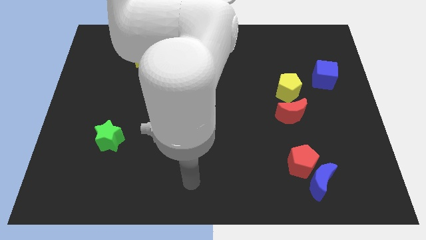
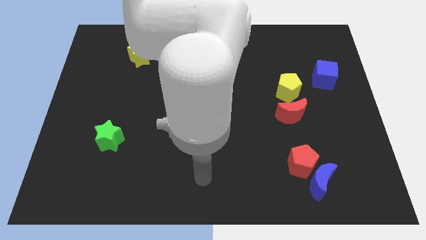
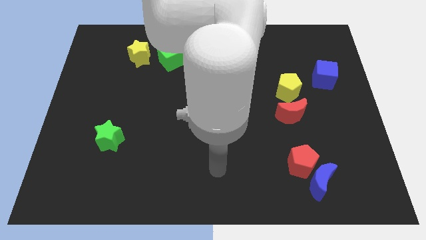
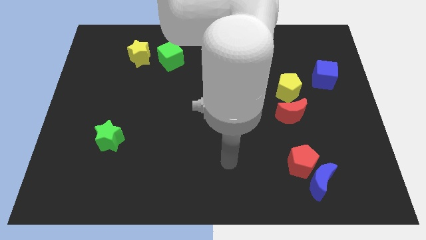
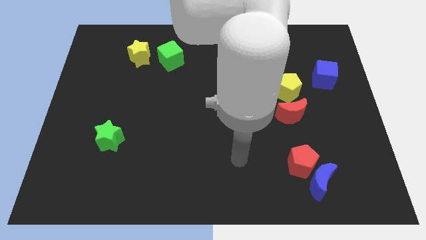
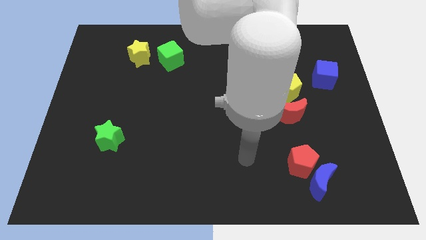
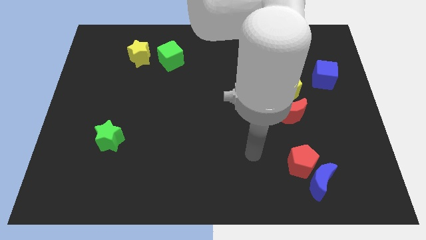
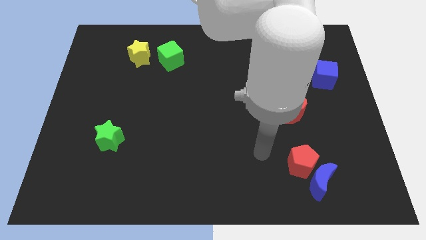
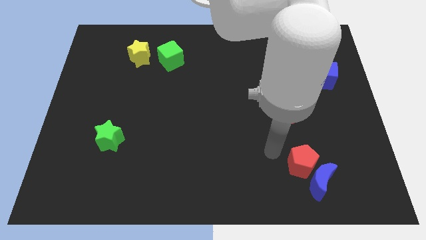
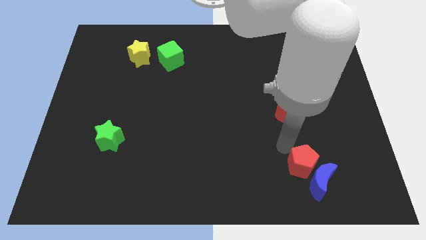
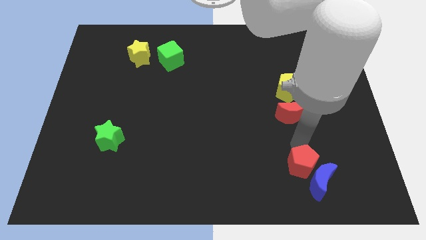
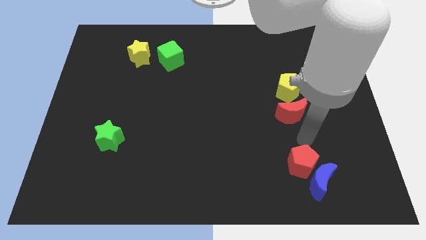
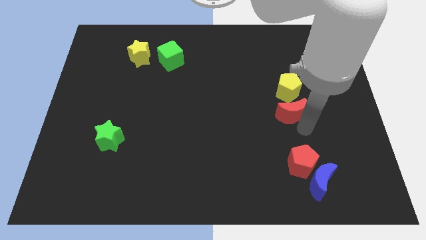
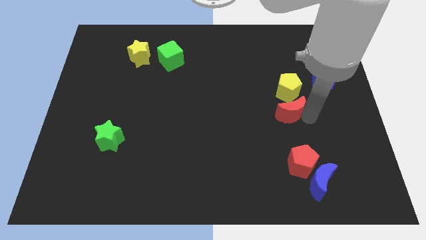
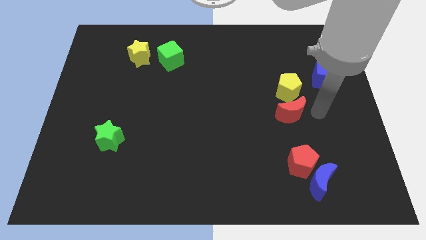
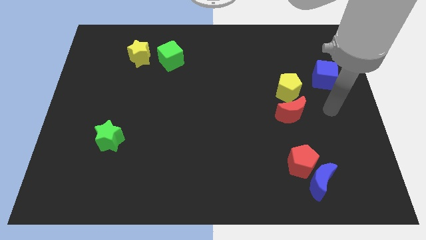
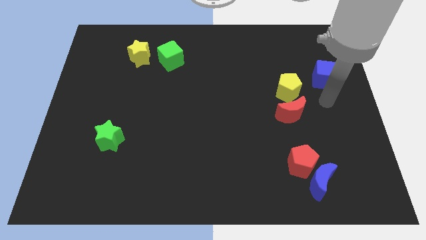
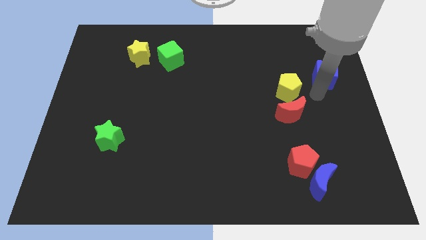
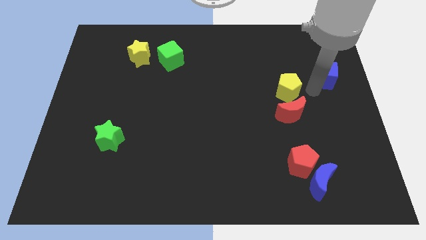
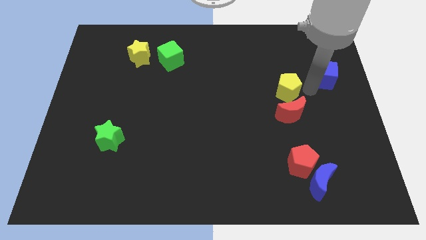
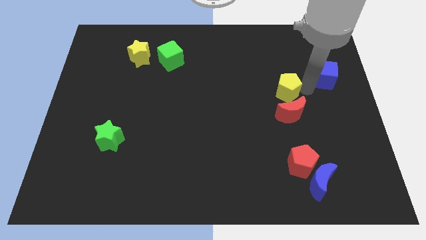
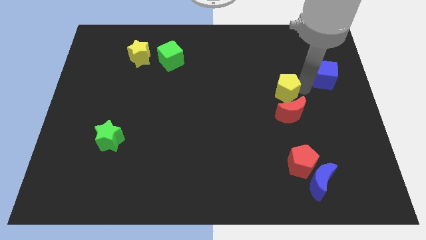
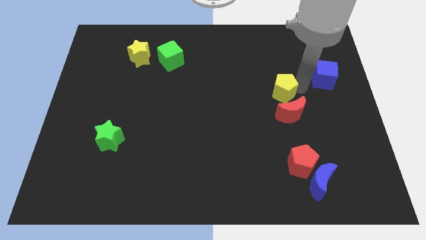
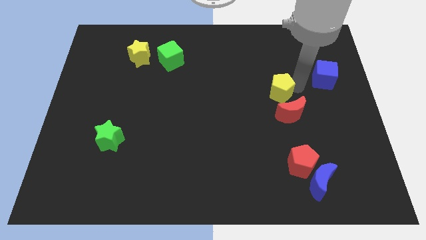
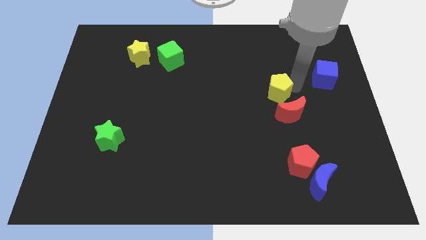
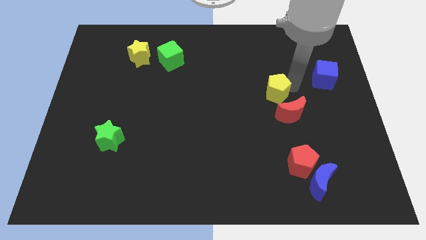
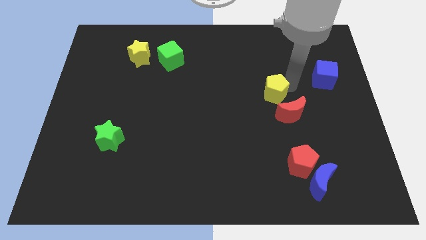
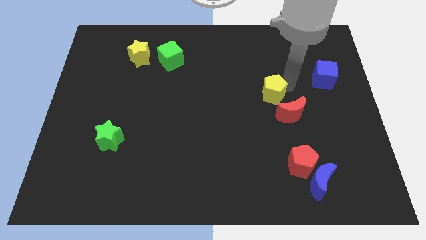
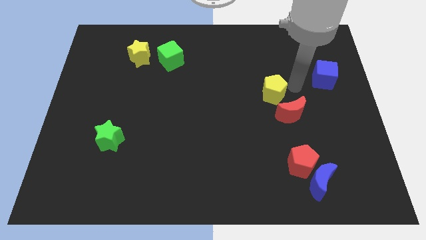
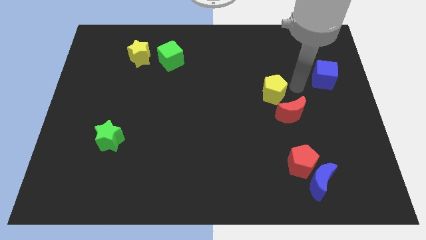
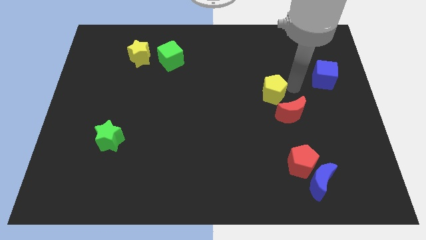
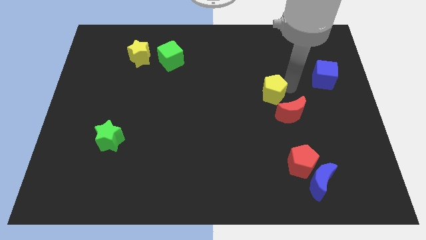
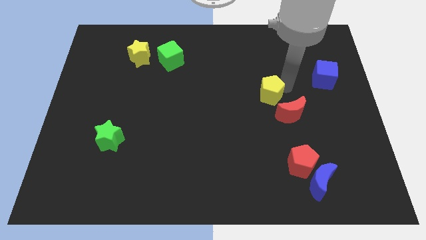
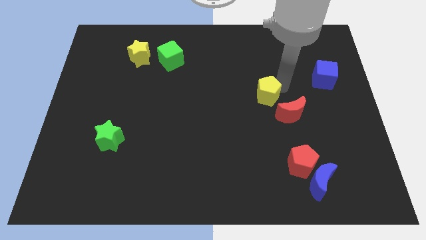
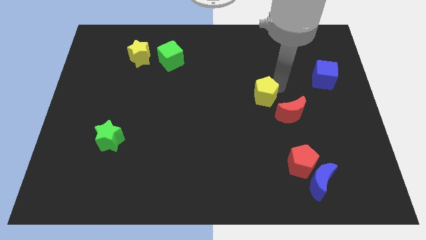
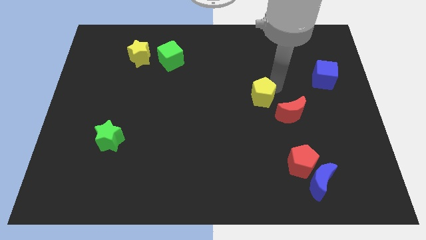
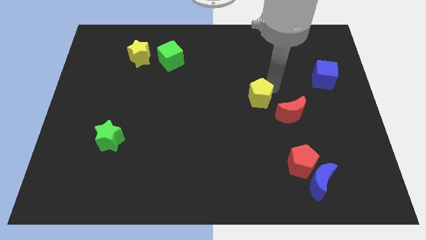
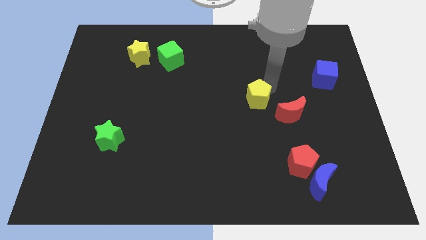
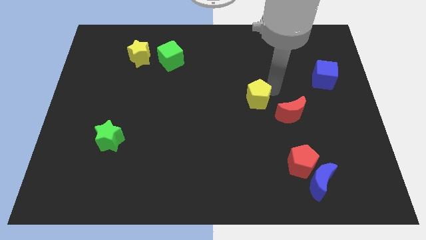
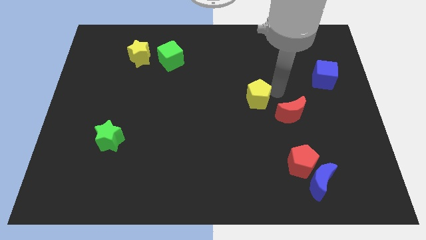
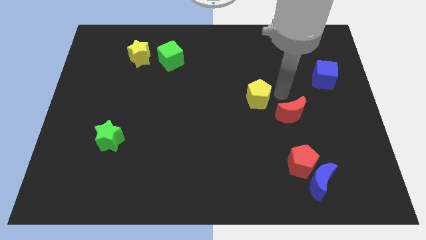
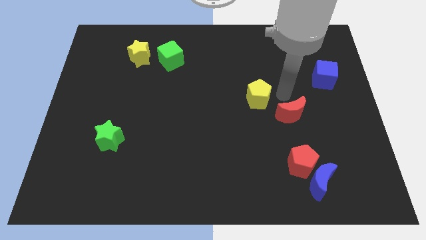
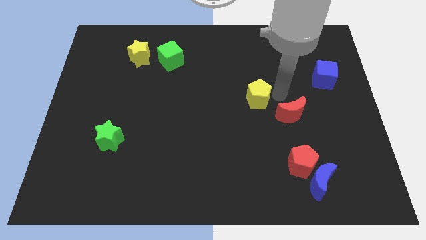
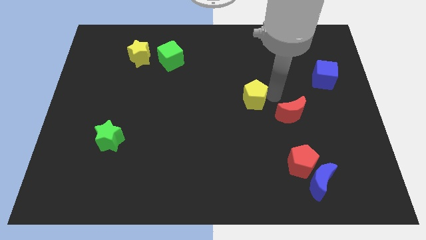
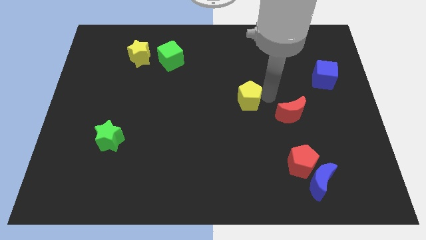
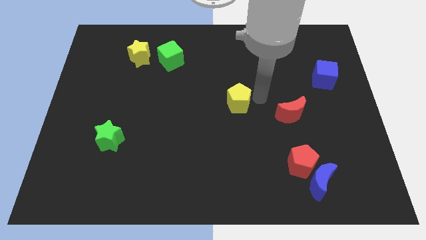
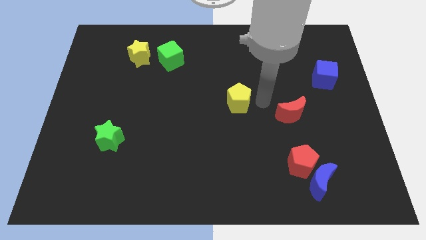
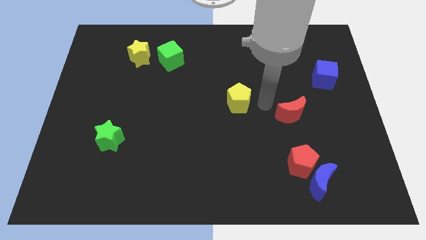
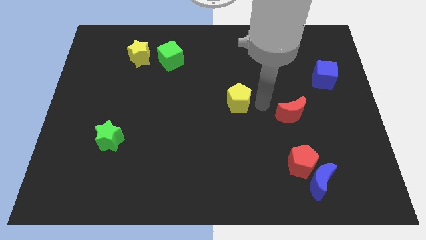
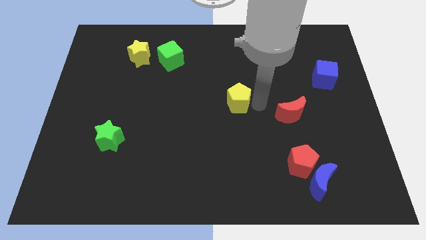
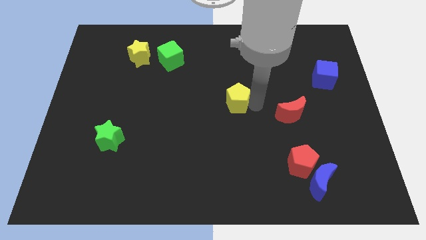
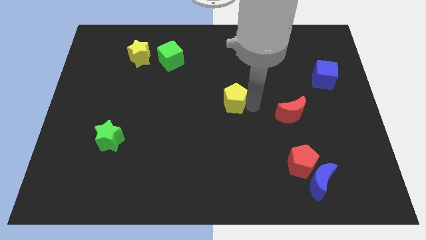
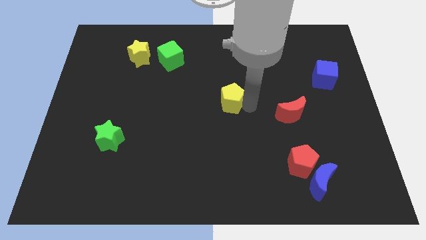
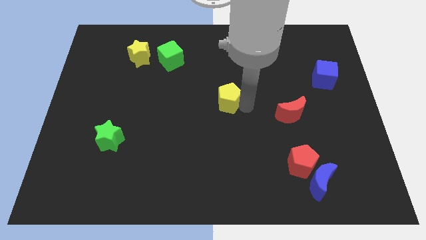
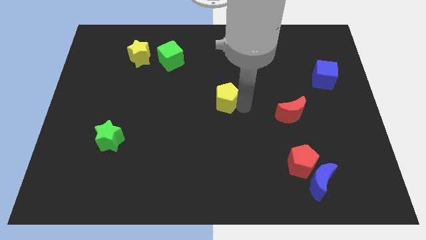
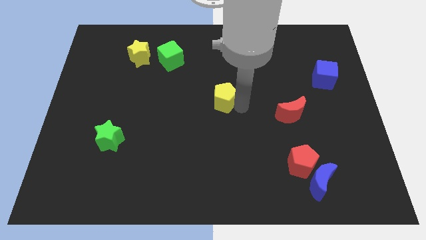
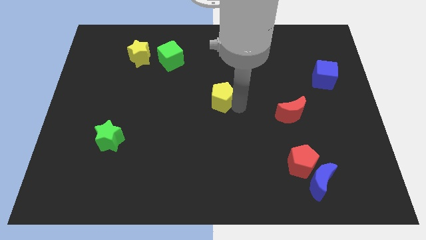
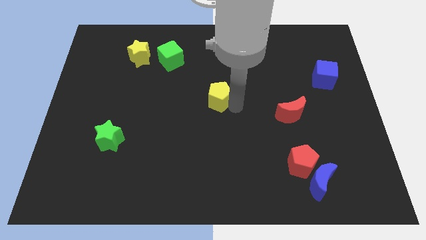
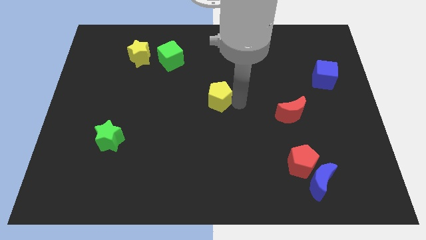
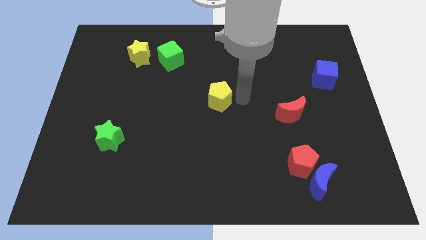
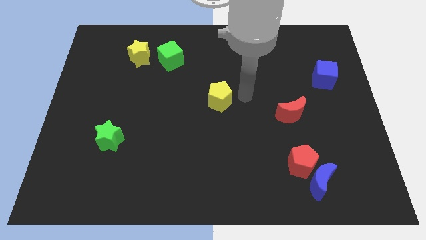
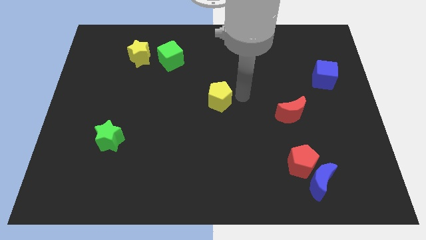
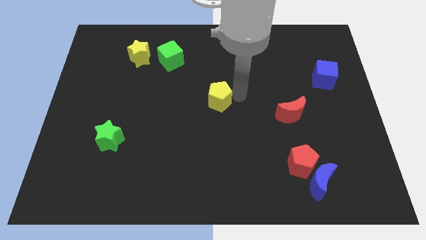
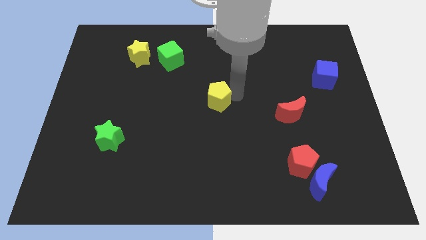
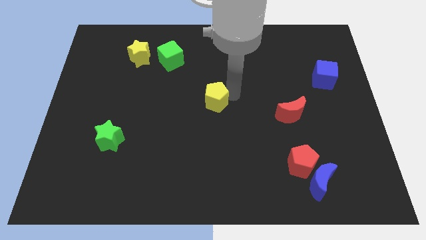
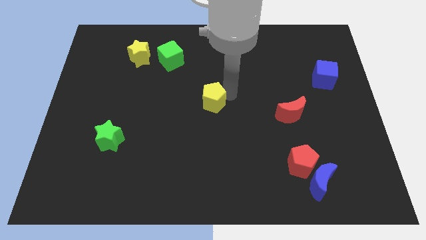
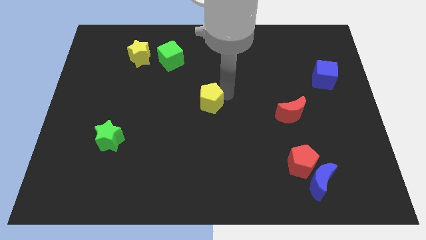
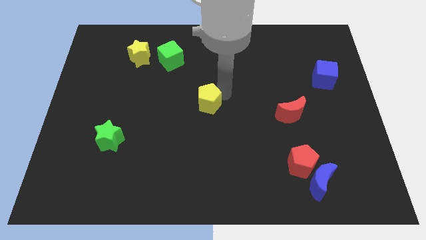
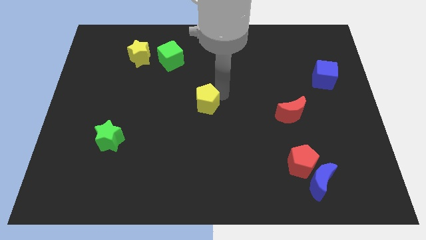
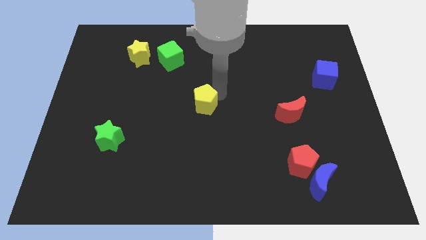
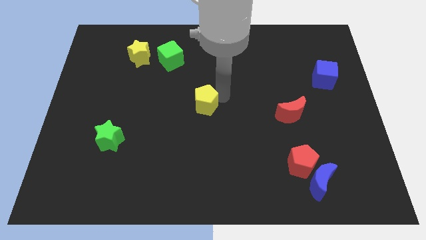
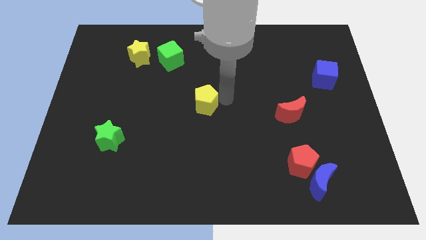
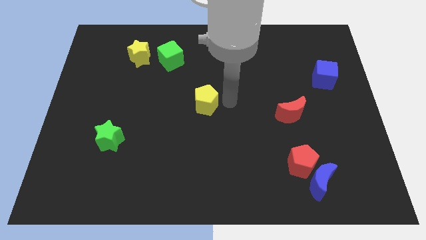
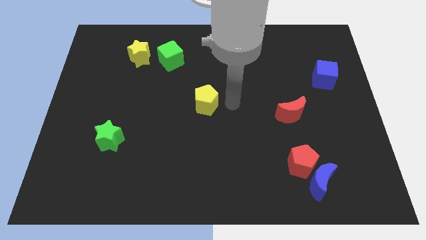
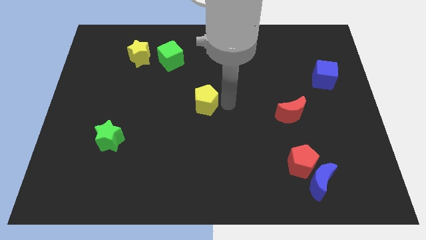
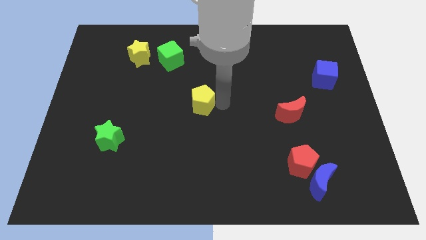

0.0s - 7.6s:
move the yellow pentagon to the left

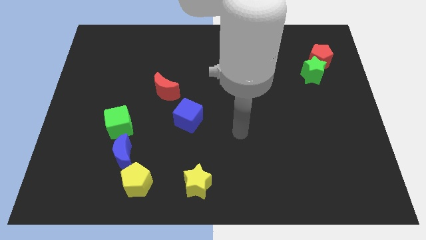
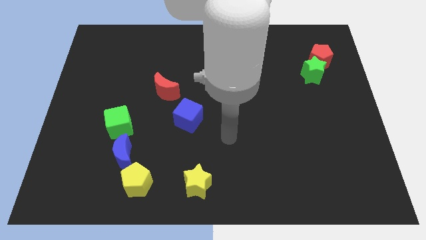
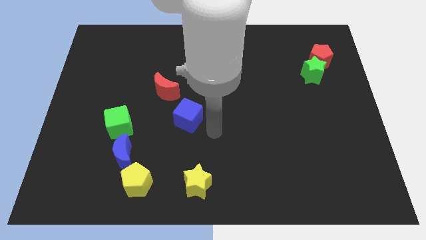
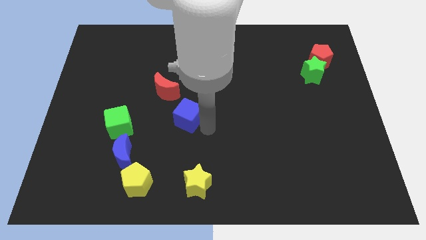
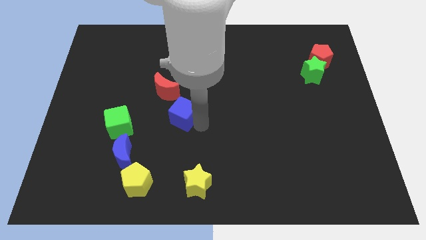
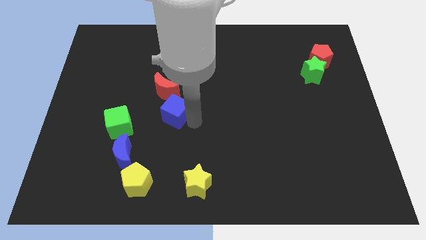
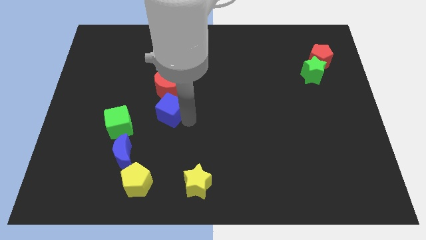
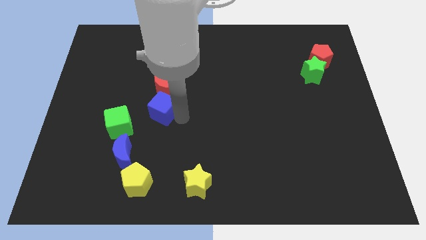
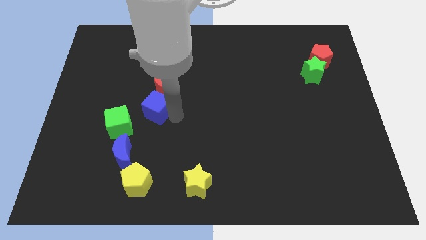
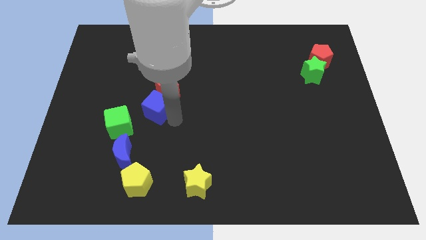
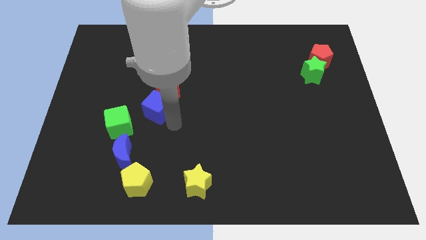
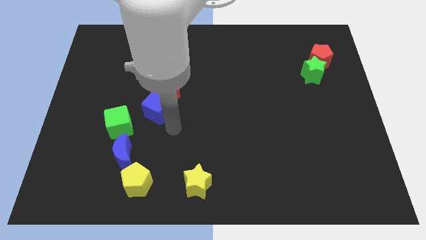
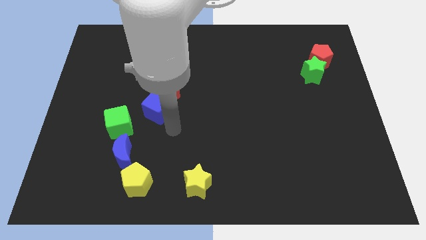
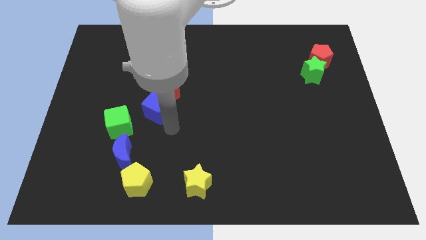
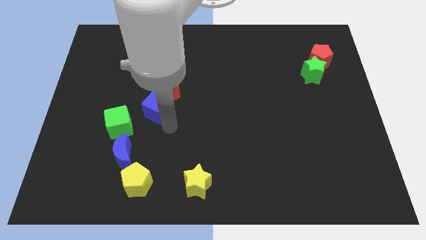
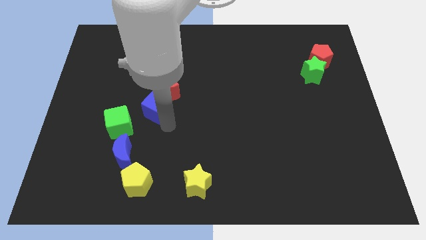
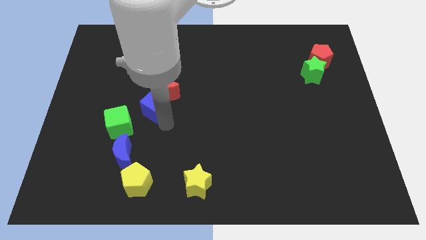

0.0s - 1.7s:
push the blue cube a little bit up and to the left
